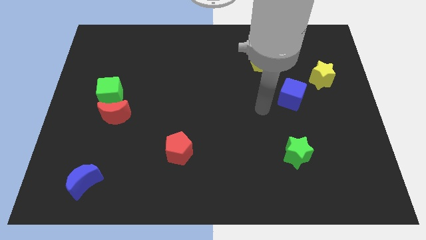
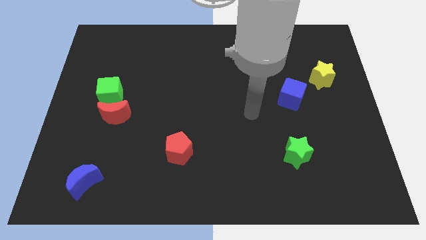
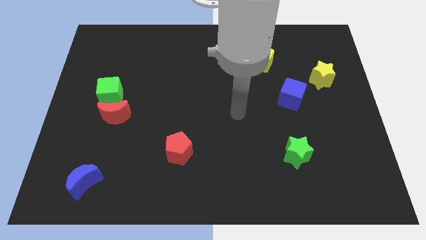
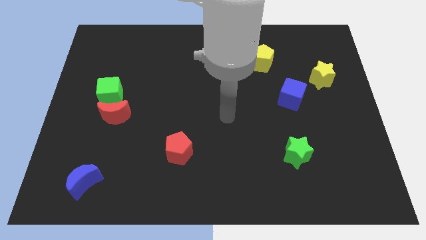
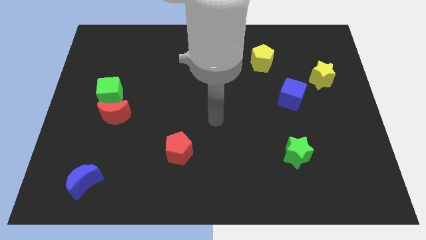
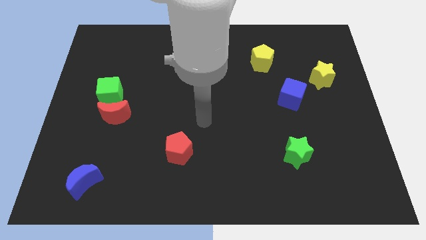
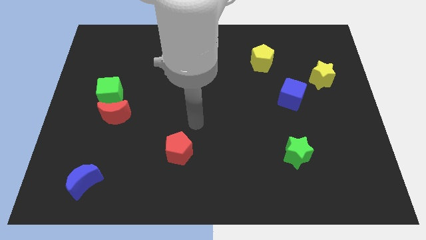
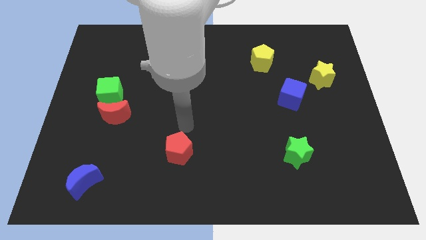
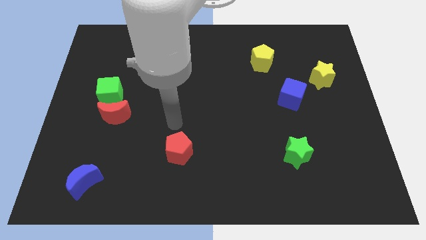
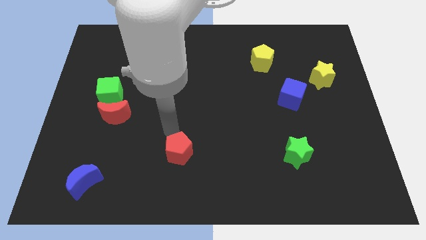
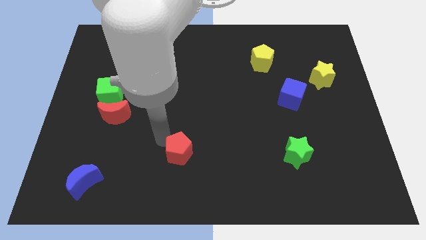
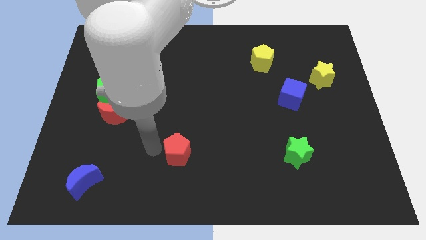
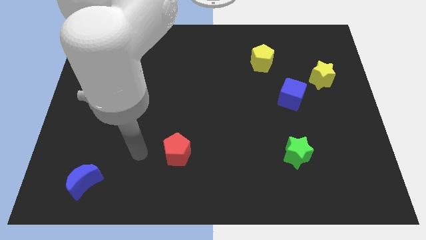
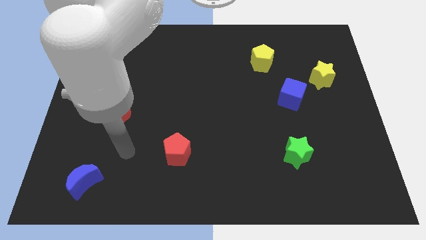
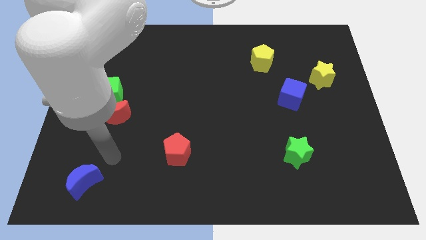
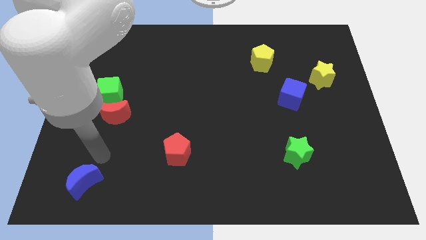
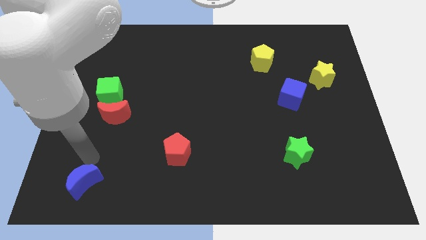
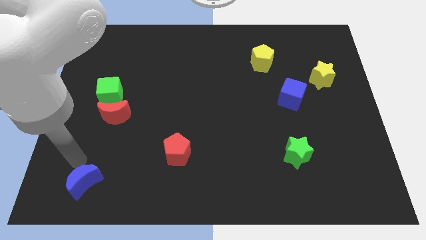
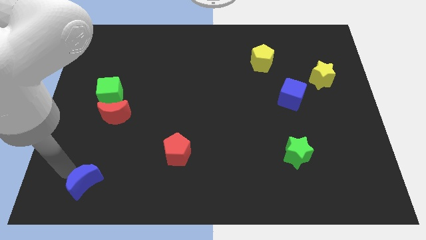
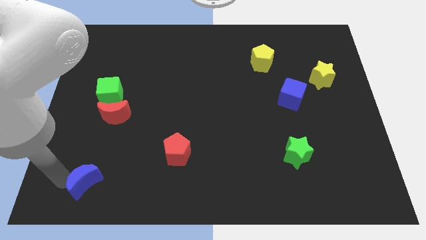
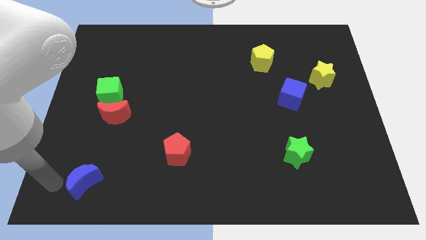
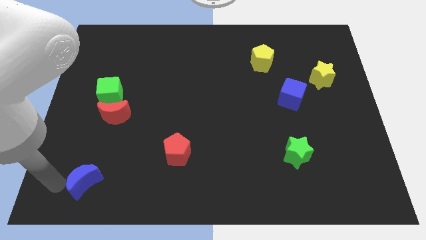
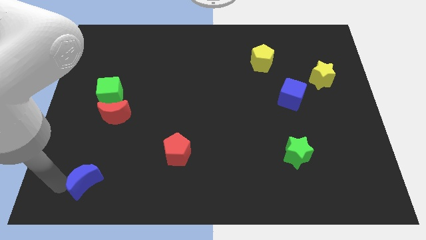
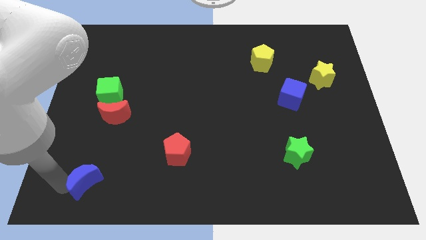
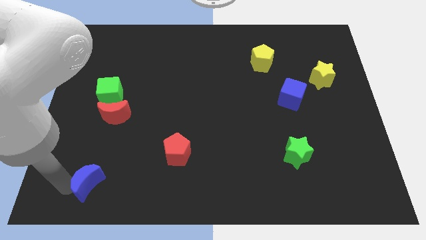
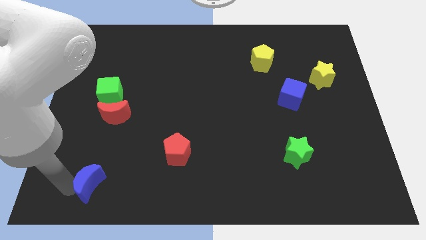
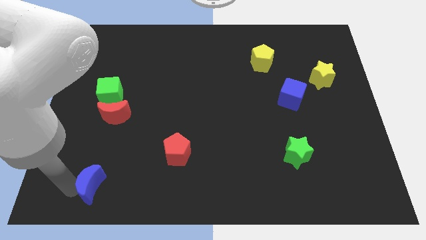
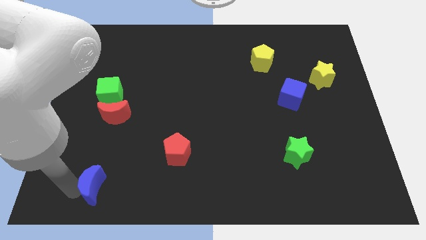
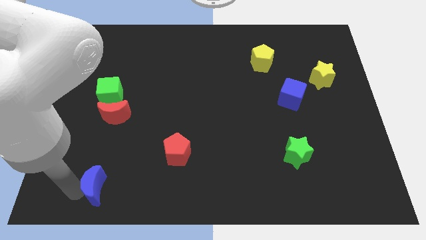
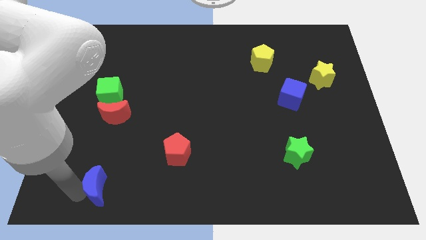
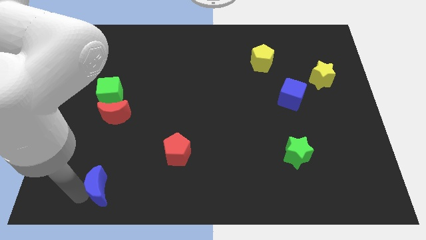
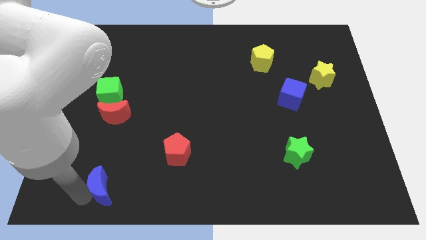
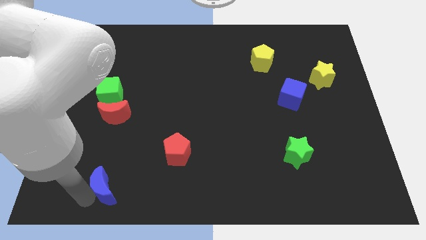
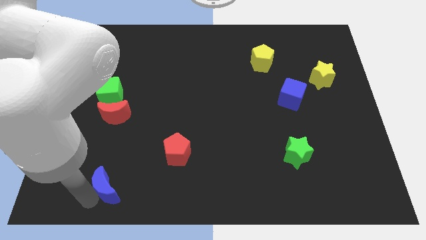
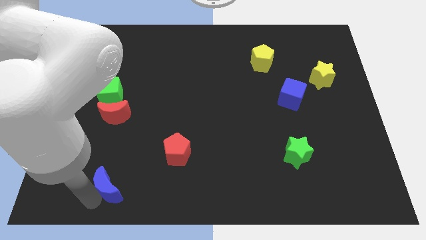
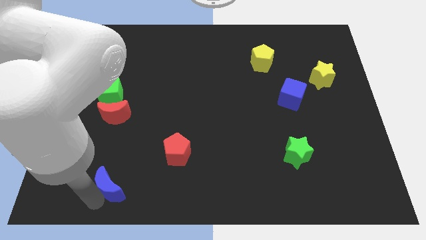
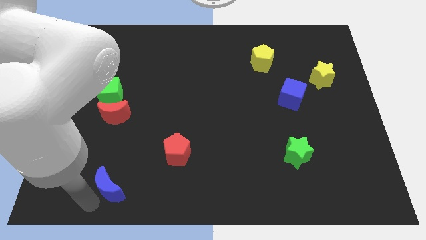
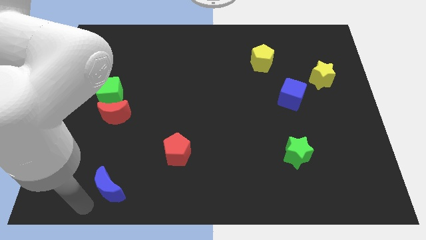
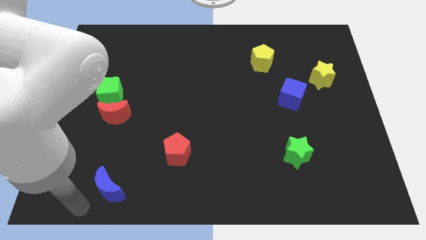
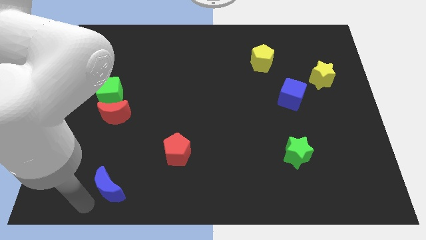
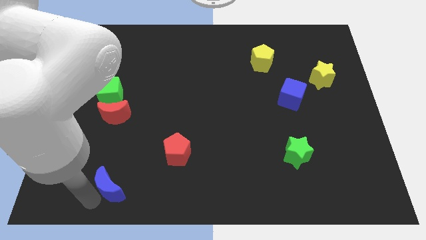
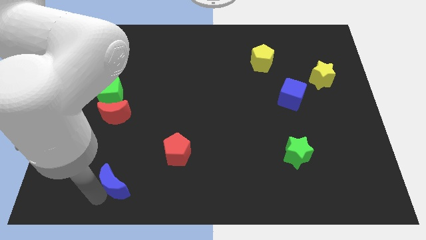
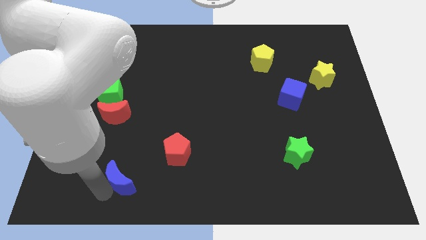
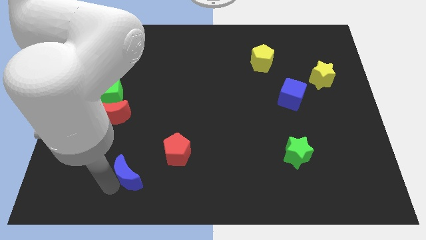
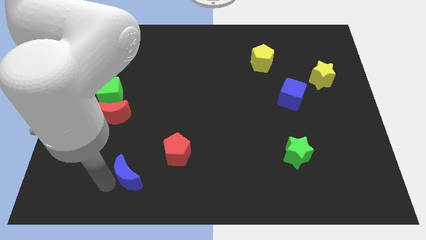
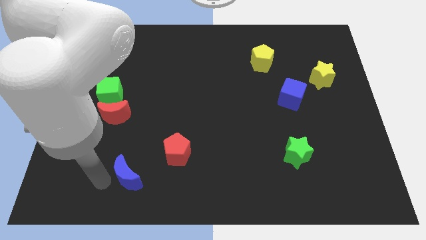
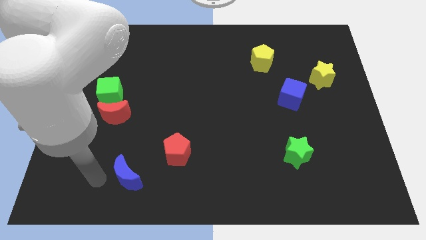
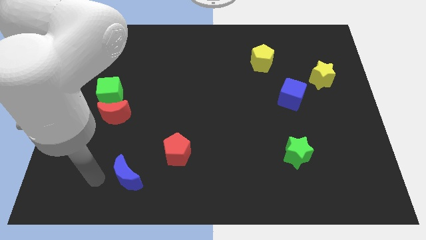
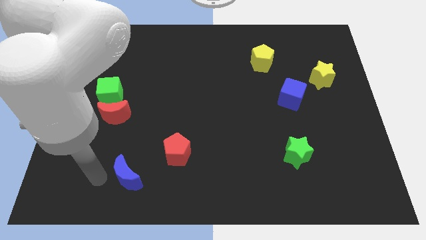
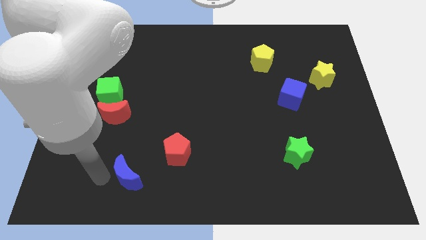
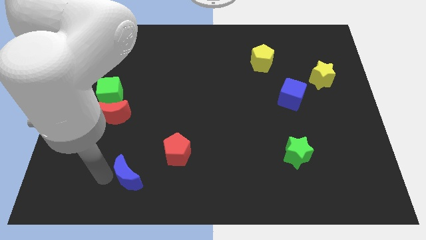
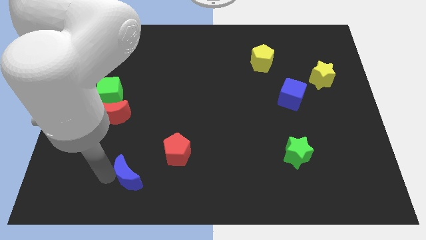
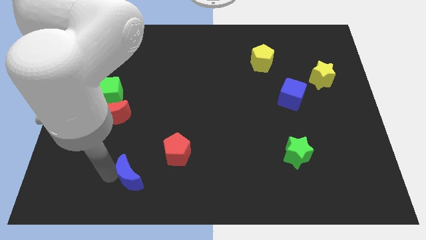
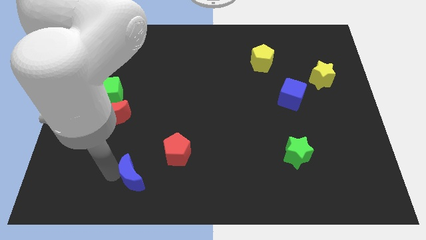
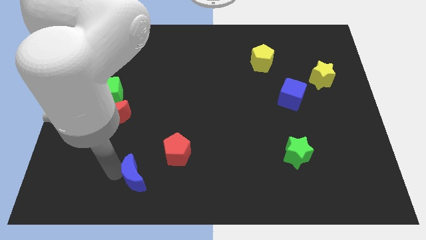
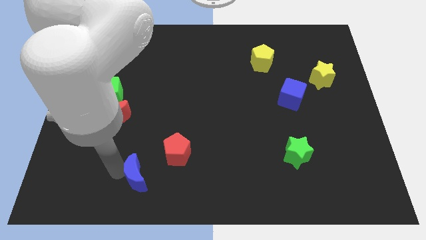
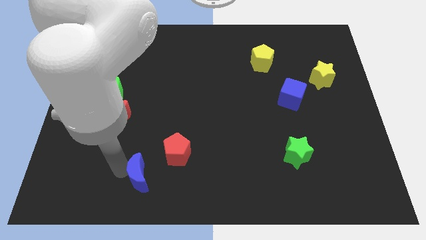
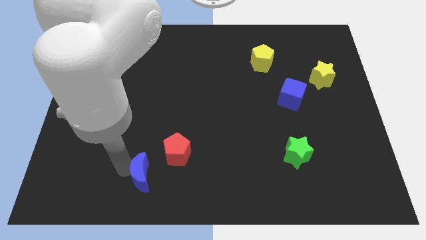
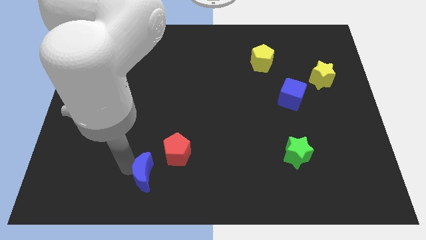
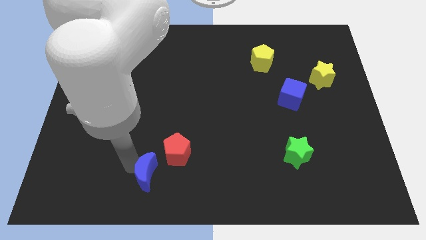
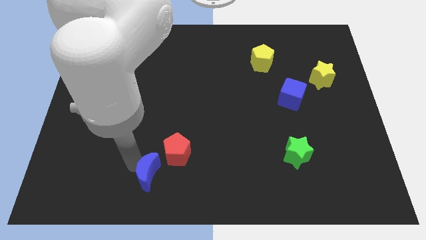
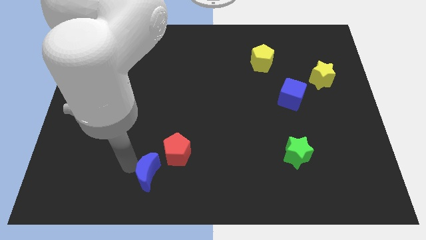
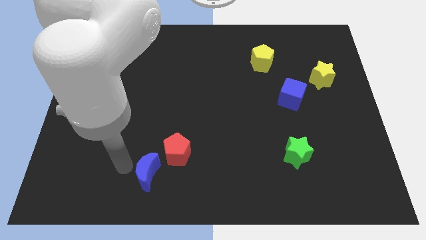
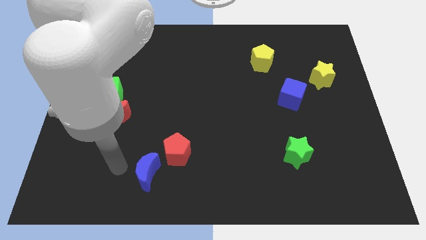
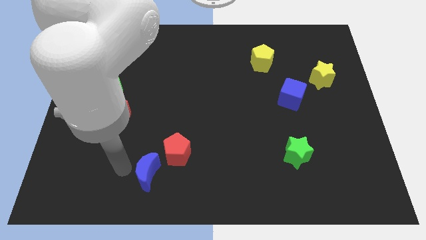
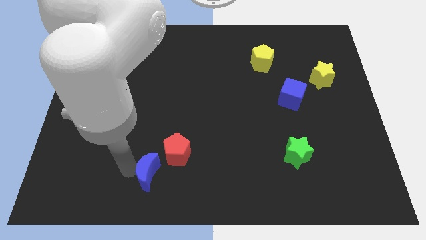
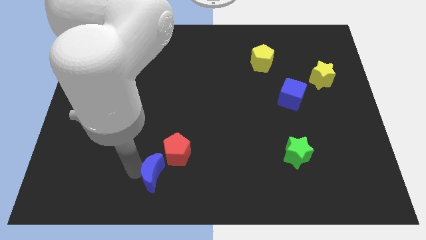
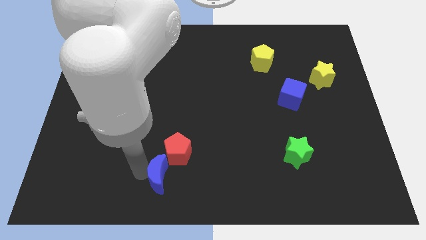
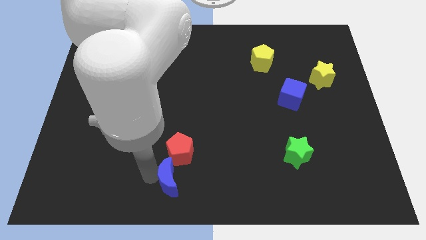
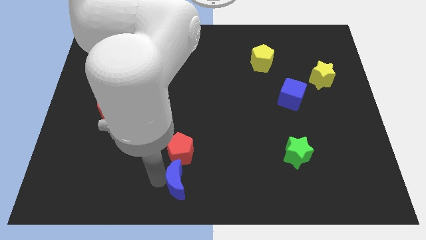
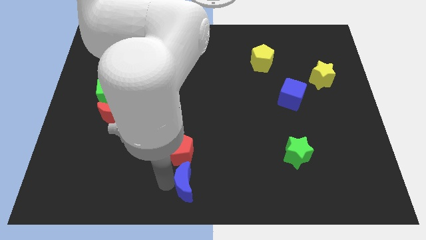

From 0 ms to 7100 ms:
slide the blue moon right

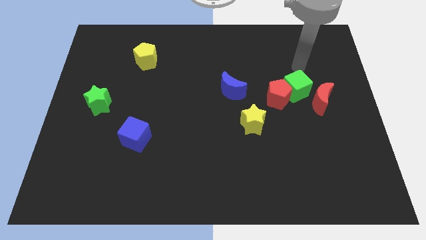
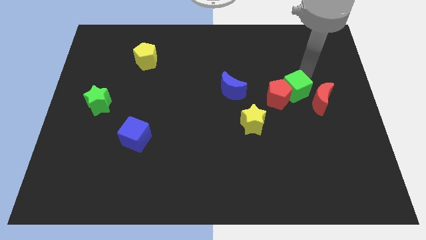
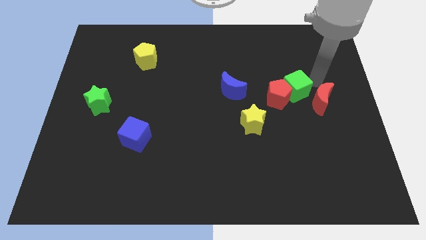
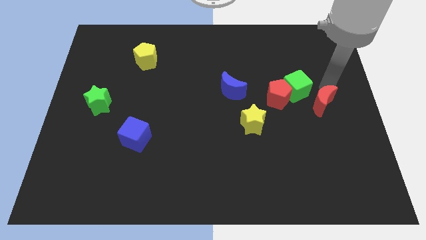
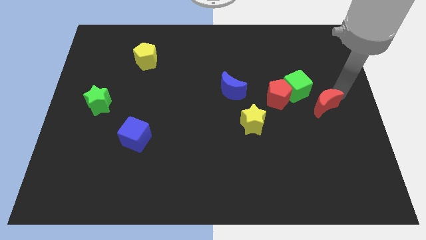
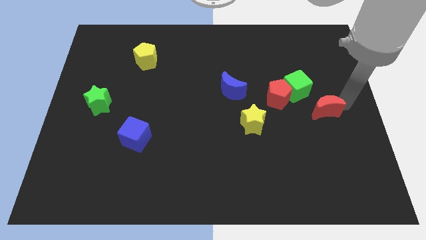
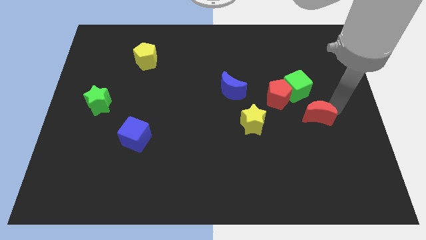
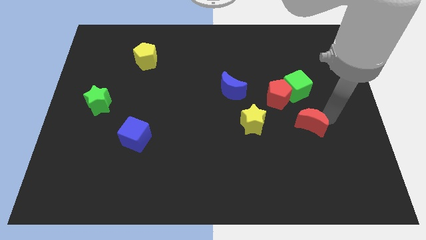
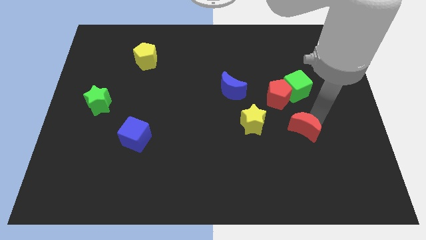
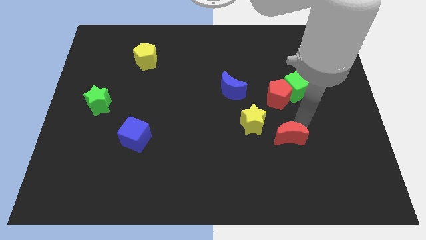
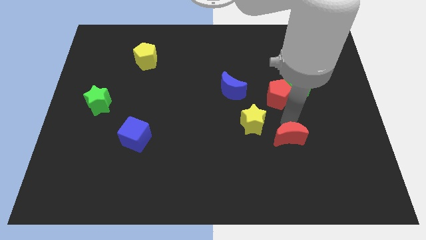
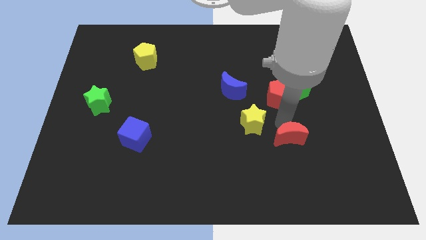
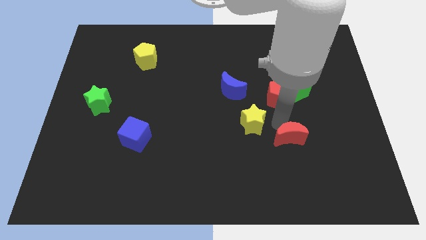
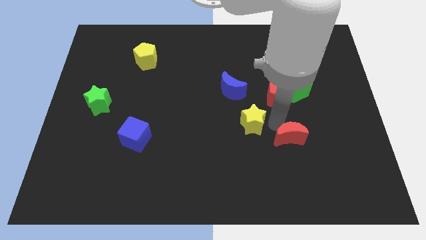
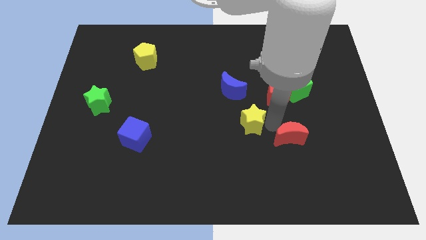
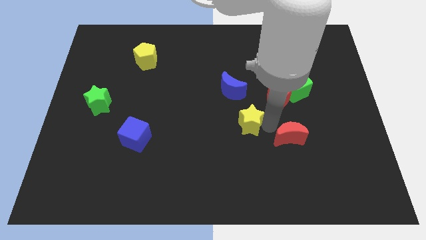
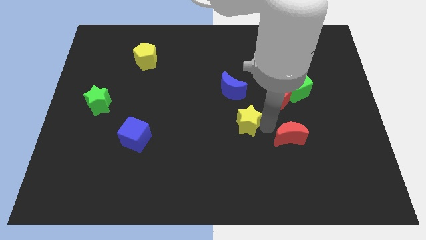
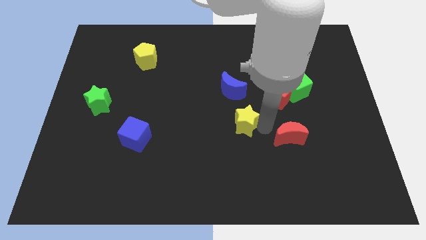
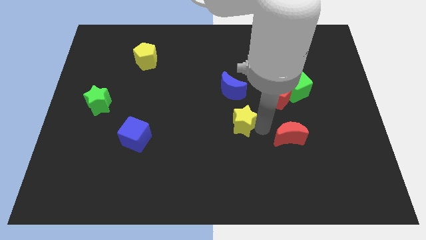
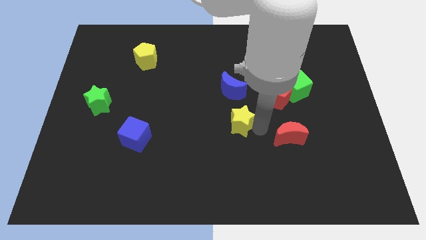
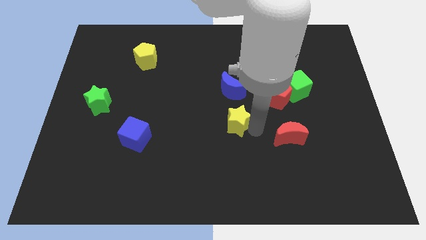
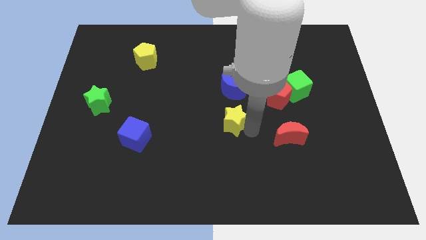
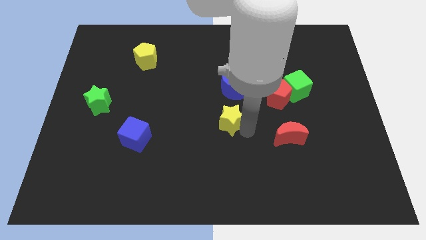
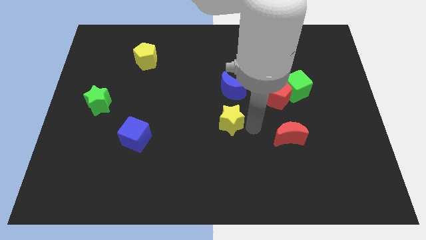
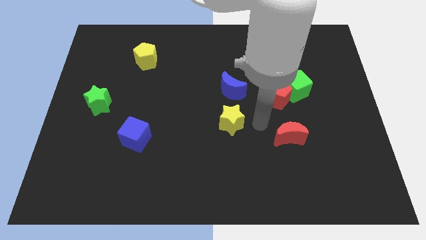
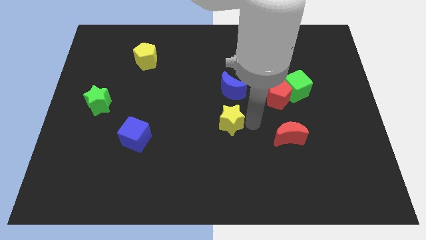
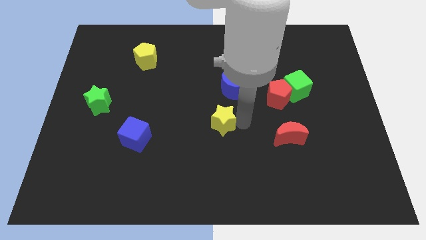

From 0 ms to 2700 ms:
slightly move the yellow star left
